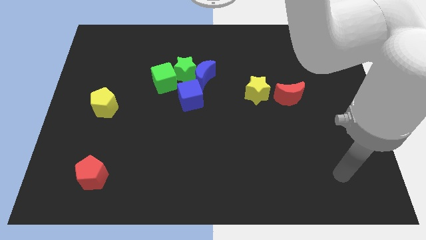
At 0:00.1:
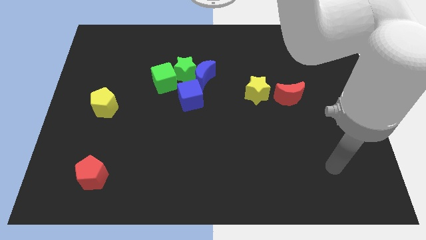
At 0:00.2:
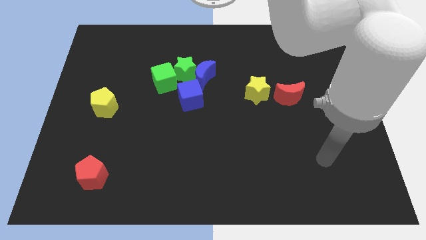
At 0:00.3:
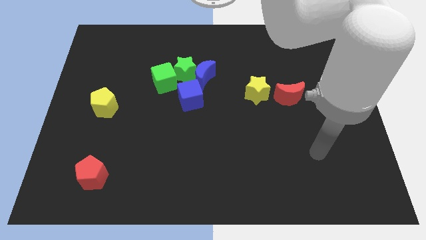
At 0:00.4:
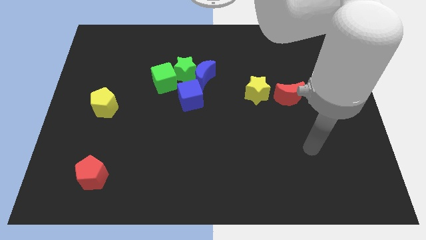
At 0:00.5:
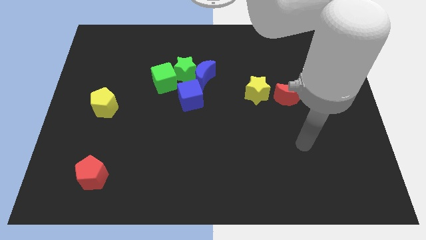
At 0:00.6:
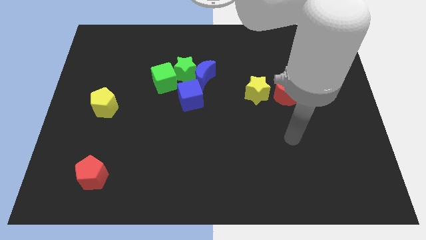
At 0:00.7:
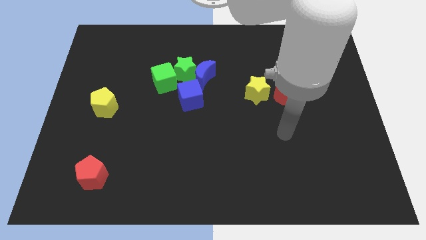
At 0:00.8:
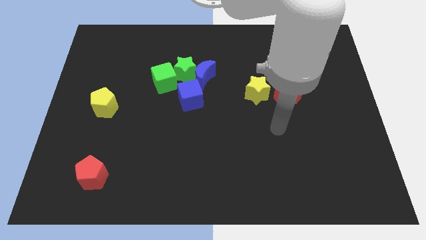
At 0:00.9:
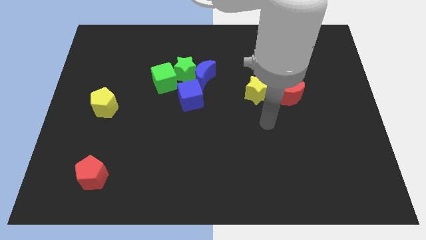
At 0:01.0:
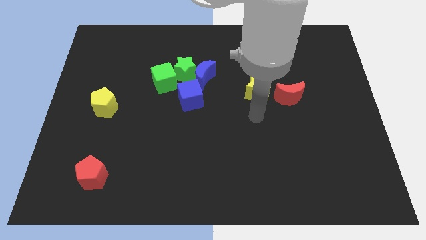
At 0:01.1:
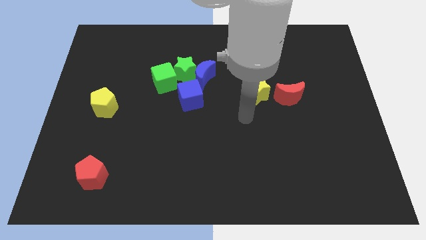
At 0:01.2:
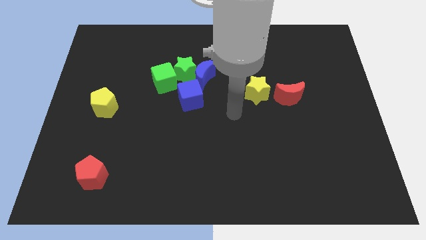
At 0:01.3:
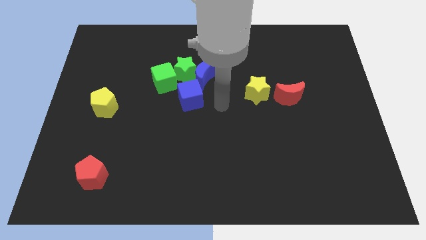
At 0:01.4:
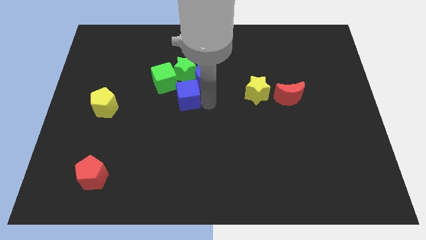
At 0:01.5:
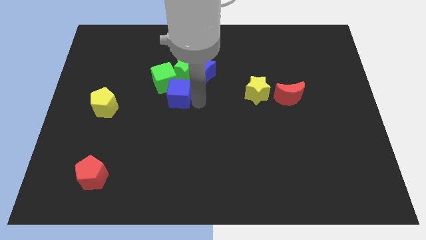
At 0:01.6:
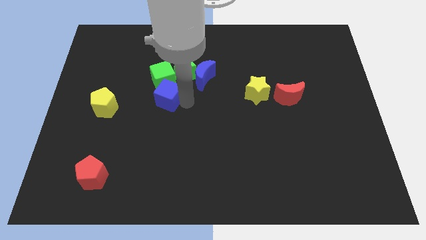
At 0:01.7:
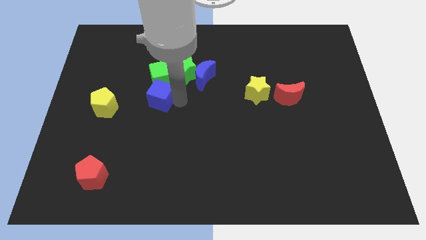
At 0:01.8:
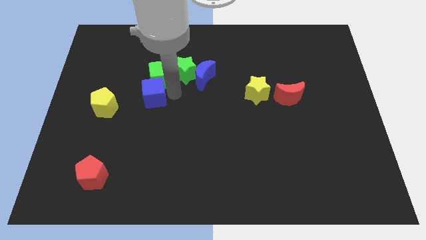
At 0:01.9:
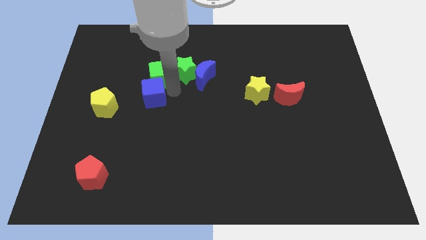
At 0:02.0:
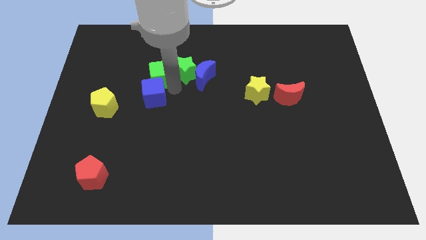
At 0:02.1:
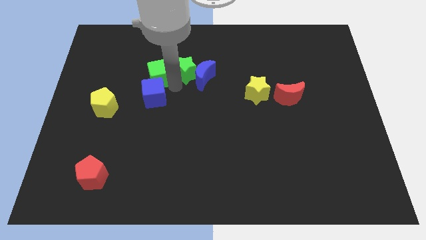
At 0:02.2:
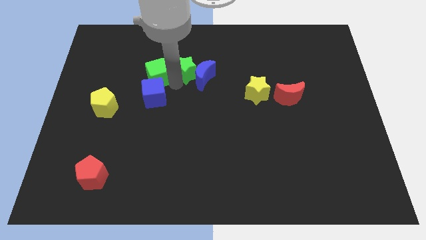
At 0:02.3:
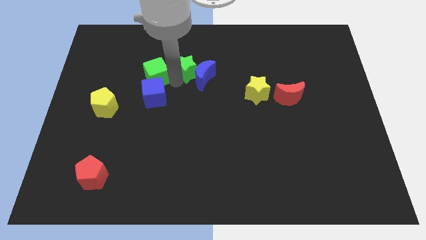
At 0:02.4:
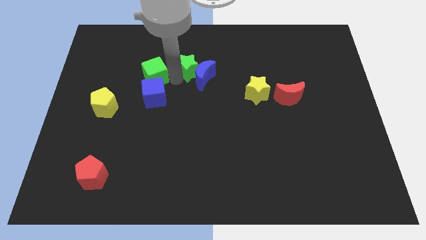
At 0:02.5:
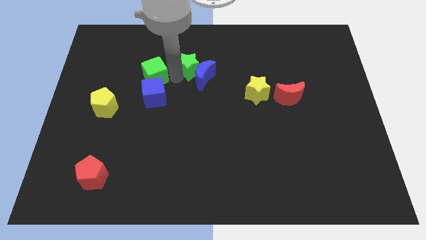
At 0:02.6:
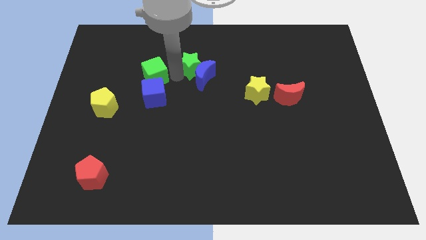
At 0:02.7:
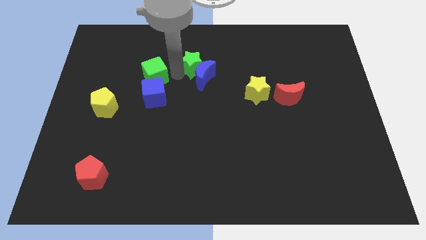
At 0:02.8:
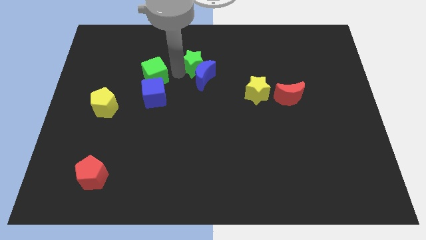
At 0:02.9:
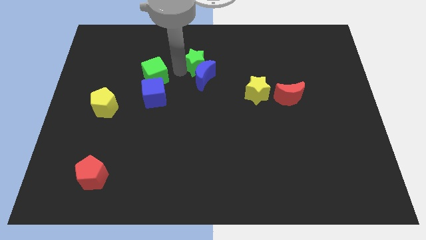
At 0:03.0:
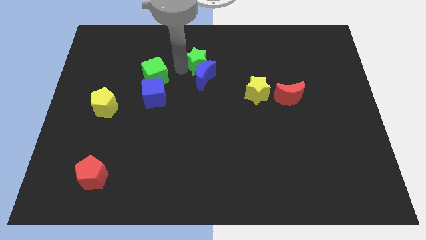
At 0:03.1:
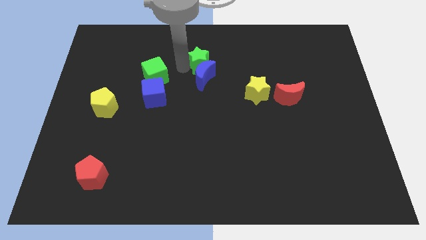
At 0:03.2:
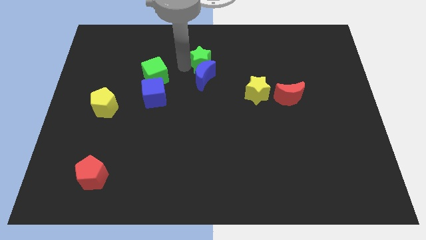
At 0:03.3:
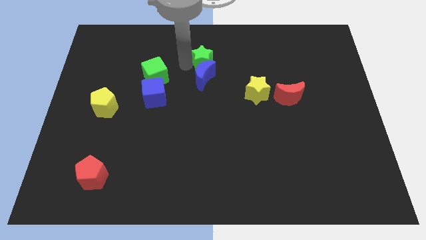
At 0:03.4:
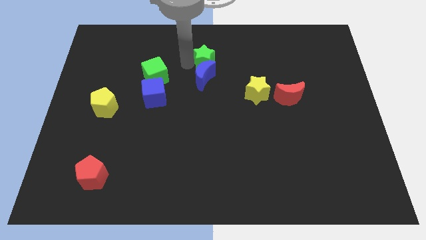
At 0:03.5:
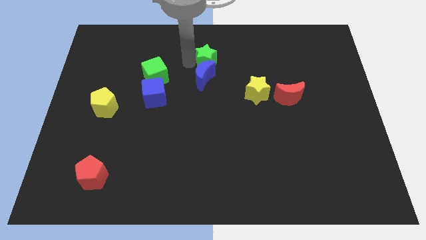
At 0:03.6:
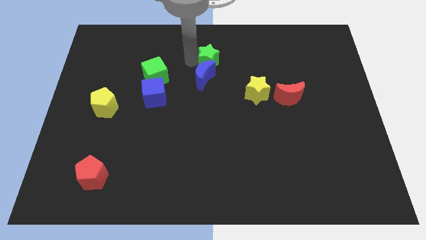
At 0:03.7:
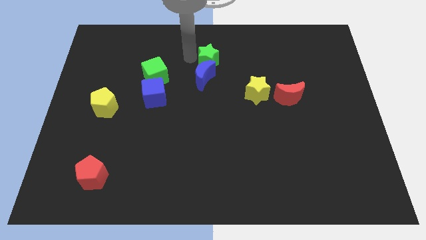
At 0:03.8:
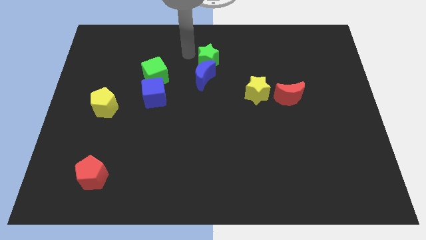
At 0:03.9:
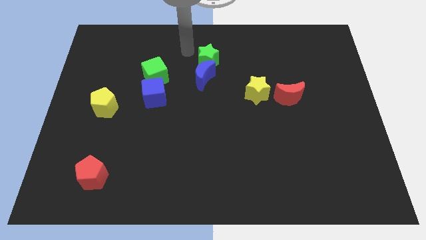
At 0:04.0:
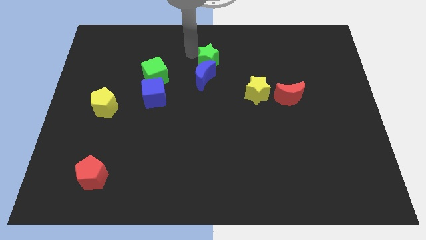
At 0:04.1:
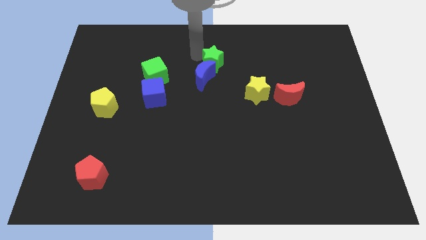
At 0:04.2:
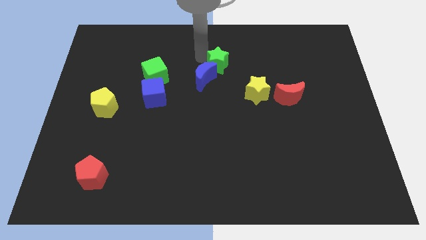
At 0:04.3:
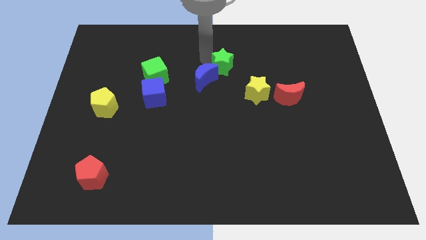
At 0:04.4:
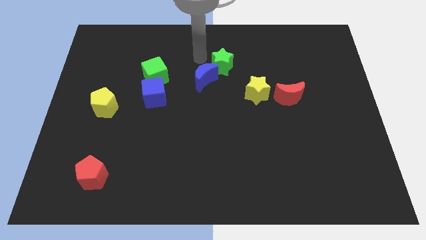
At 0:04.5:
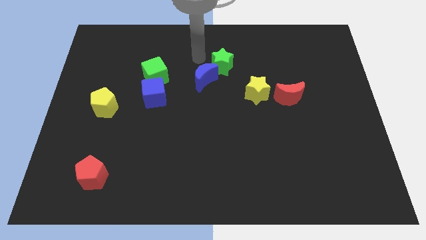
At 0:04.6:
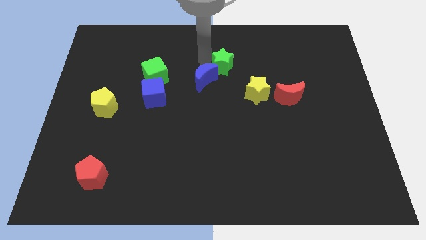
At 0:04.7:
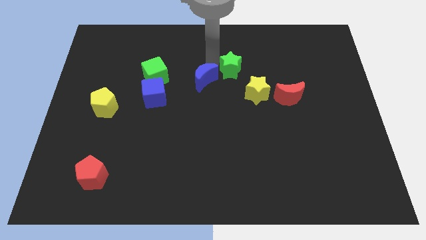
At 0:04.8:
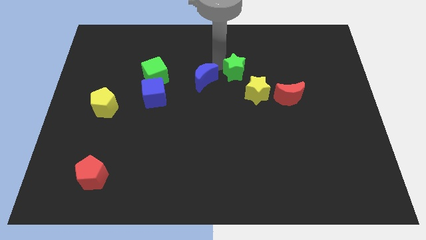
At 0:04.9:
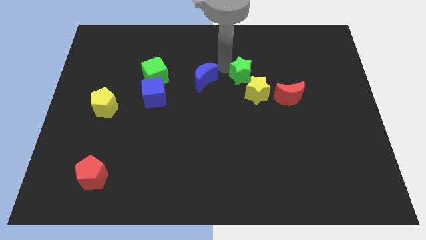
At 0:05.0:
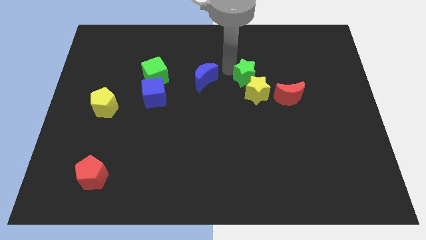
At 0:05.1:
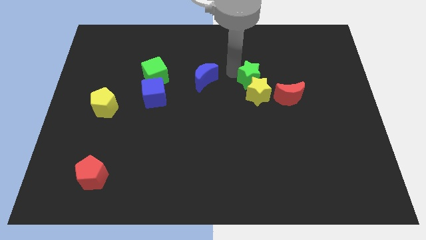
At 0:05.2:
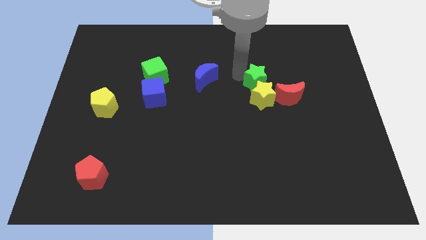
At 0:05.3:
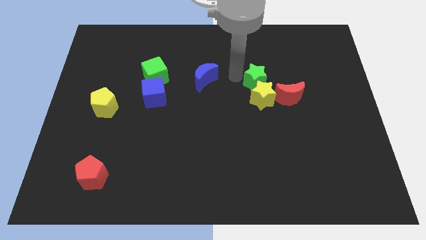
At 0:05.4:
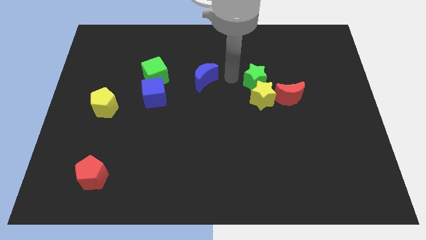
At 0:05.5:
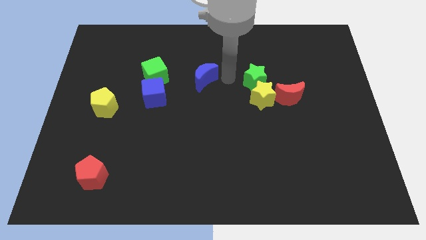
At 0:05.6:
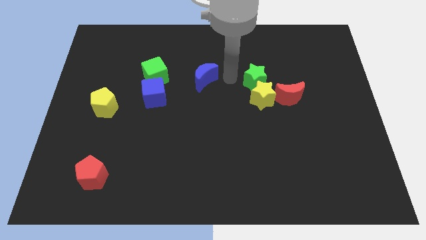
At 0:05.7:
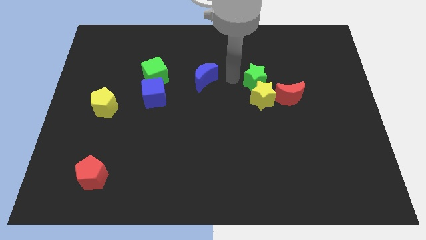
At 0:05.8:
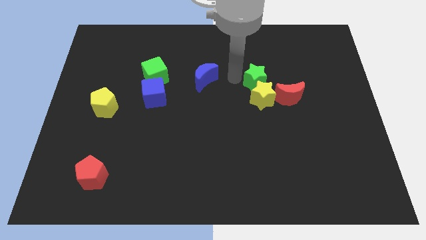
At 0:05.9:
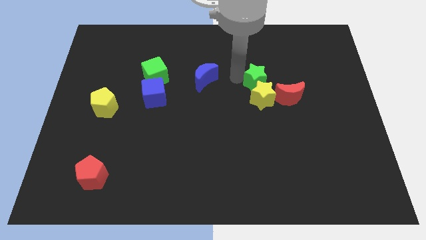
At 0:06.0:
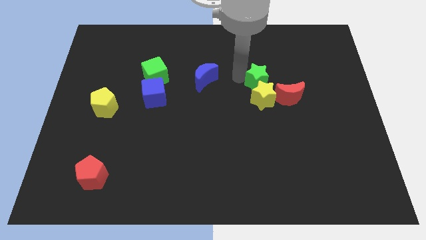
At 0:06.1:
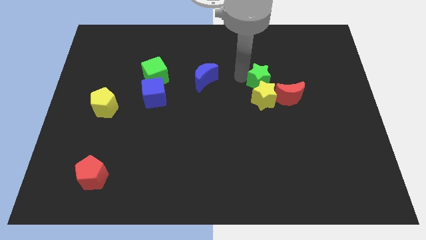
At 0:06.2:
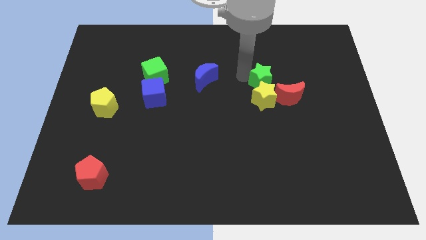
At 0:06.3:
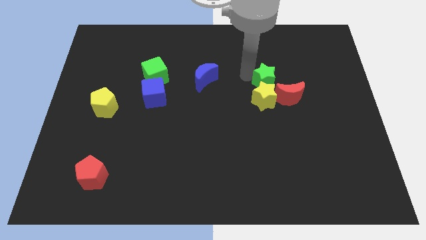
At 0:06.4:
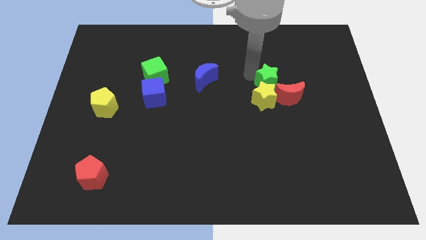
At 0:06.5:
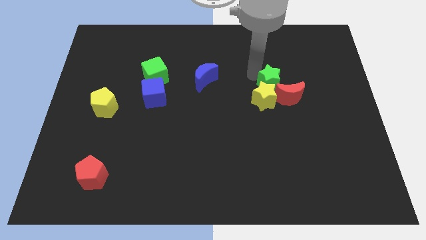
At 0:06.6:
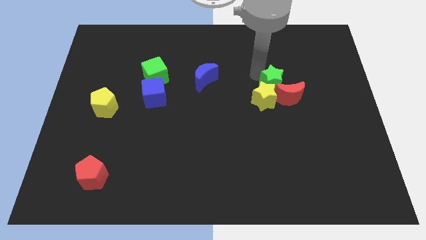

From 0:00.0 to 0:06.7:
slide the green star next to the red moon

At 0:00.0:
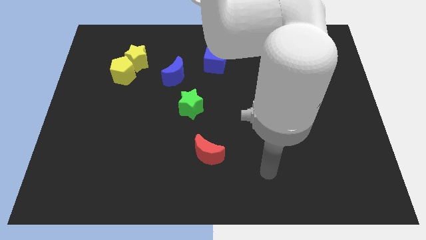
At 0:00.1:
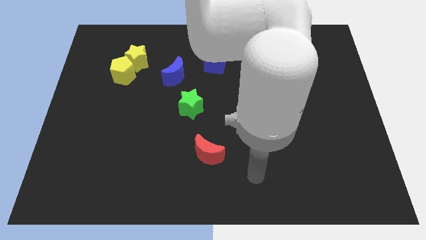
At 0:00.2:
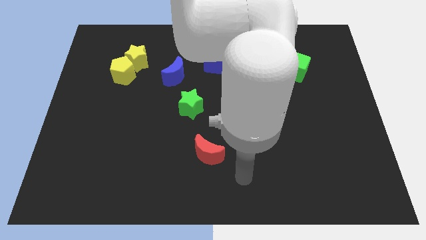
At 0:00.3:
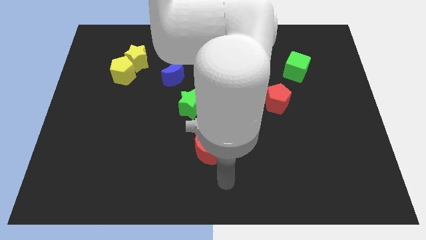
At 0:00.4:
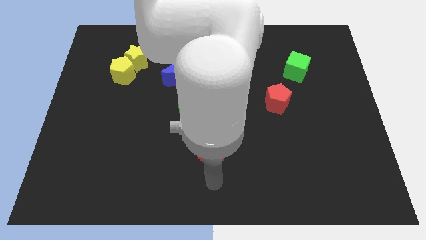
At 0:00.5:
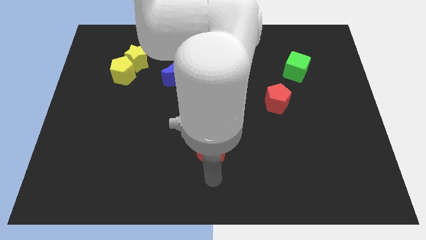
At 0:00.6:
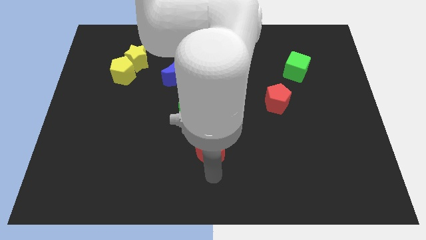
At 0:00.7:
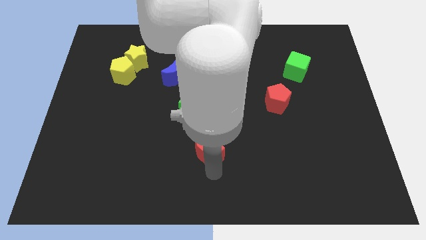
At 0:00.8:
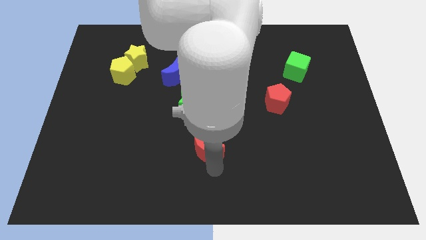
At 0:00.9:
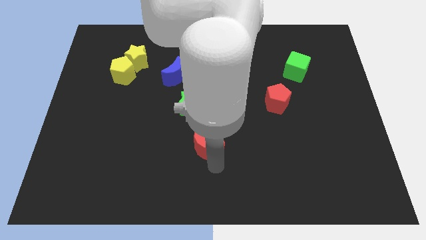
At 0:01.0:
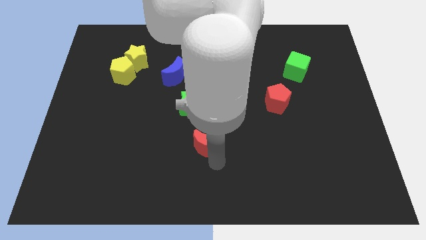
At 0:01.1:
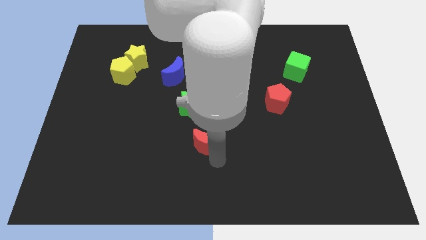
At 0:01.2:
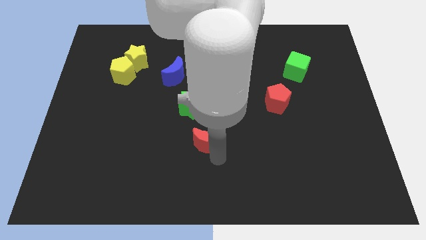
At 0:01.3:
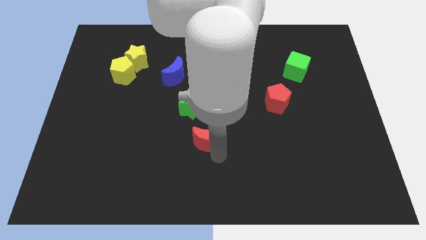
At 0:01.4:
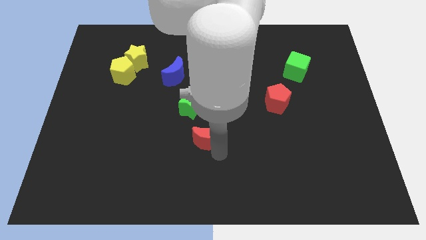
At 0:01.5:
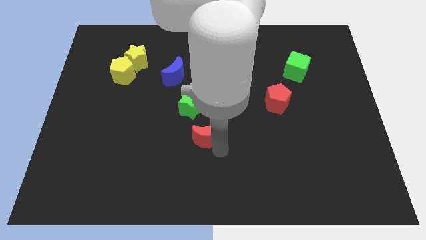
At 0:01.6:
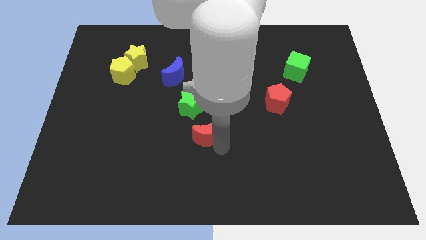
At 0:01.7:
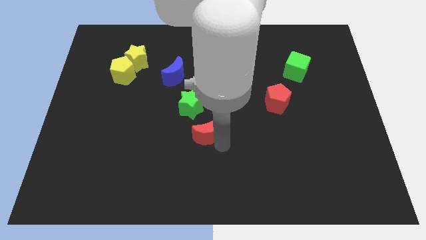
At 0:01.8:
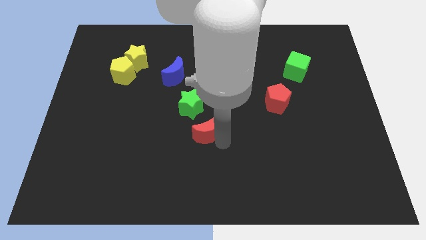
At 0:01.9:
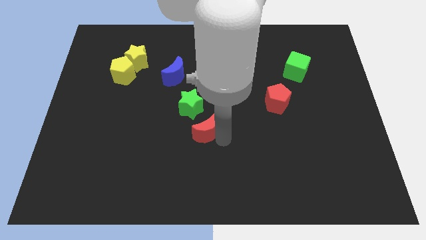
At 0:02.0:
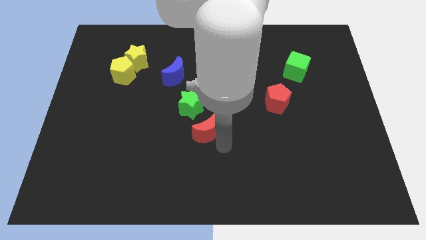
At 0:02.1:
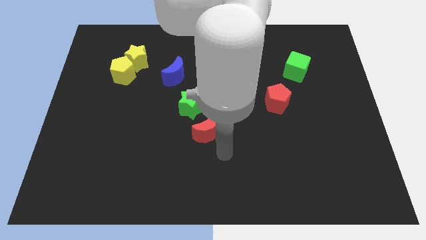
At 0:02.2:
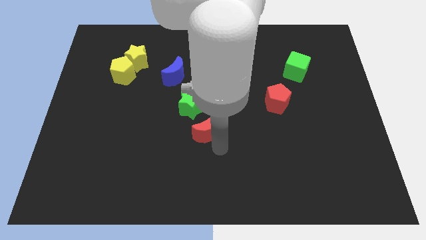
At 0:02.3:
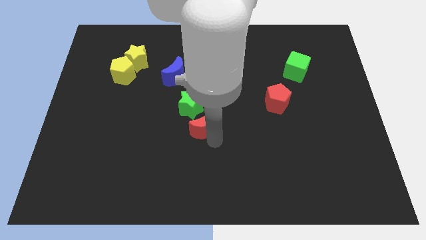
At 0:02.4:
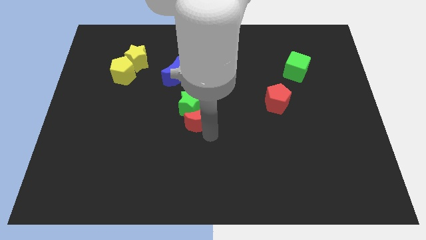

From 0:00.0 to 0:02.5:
slide the red moon towards the green star
